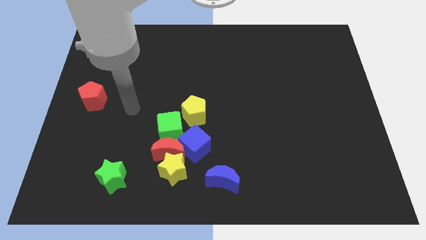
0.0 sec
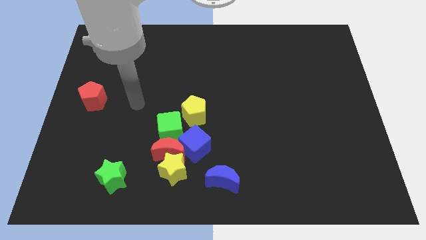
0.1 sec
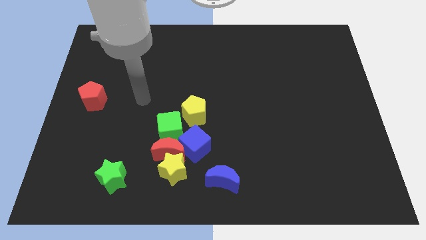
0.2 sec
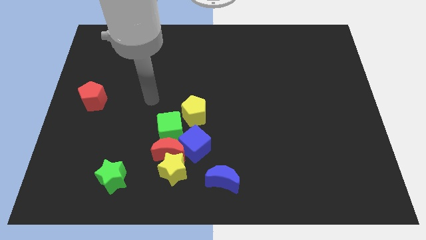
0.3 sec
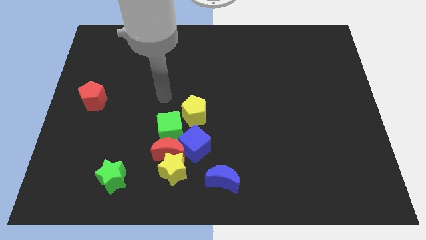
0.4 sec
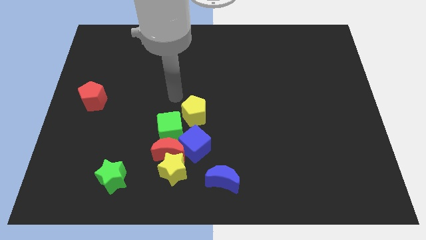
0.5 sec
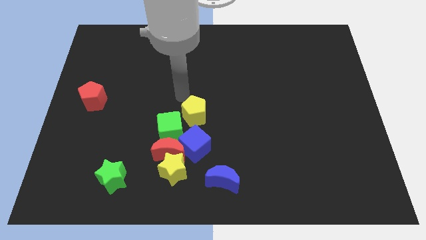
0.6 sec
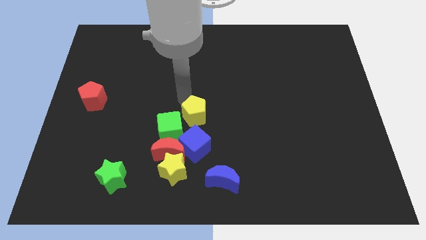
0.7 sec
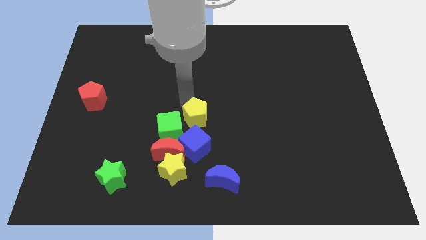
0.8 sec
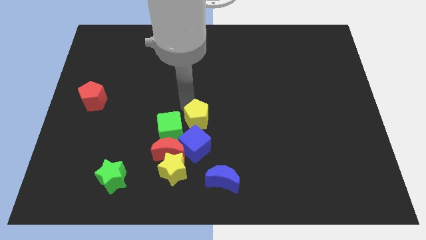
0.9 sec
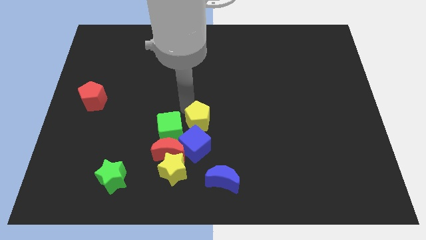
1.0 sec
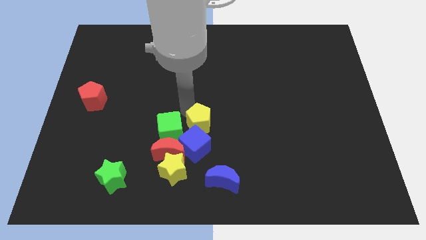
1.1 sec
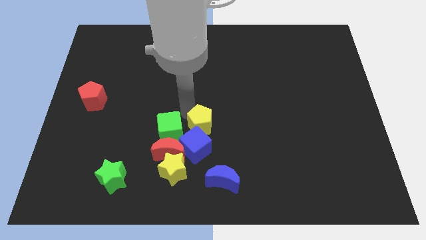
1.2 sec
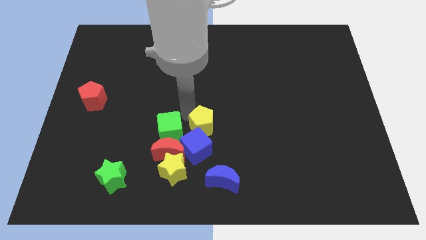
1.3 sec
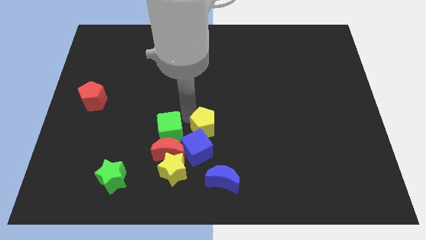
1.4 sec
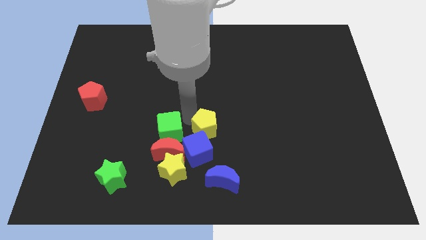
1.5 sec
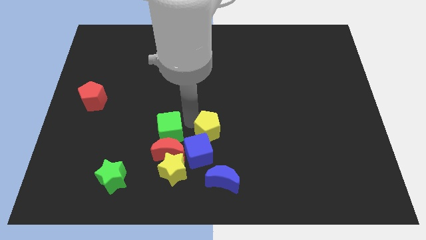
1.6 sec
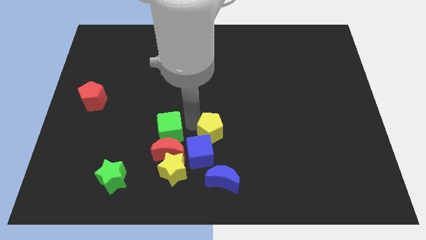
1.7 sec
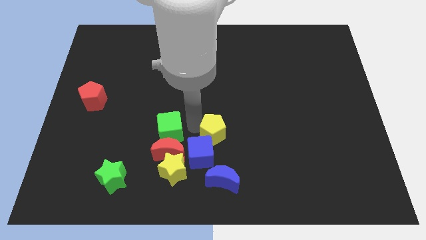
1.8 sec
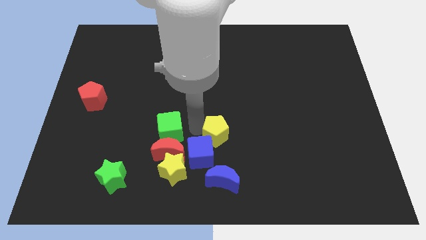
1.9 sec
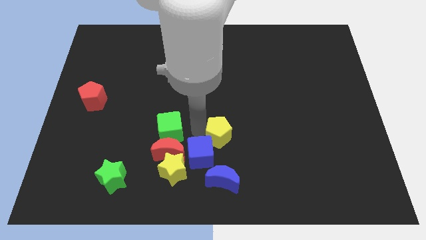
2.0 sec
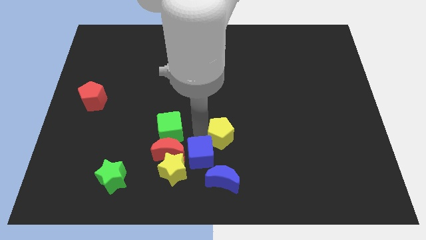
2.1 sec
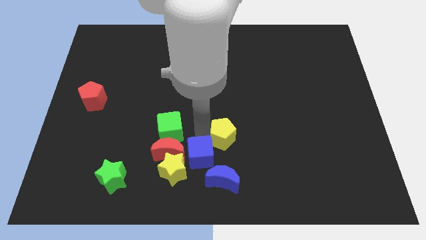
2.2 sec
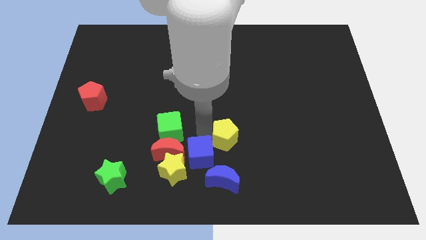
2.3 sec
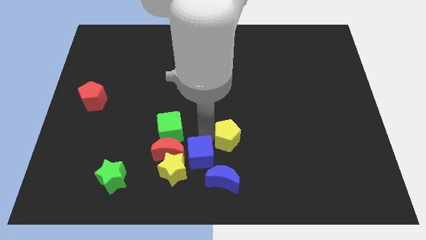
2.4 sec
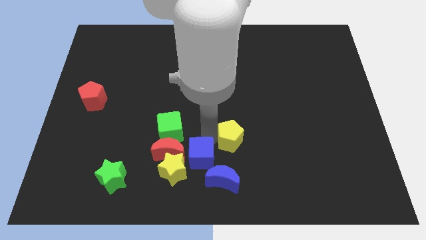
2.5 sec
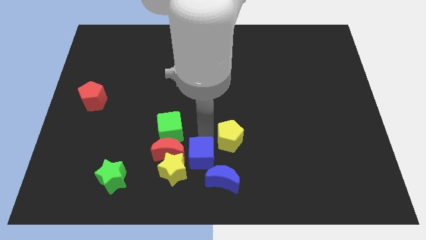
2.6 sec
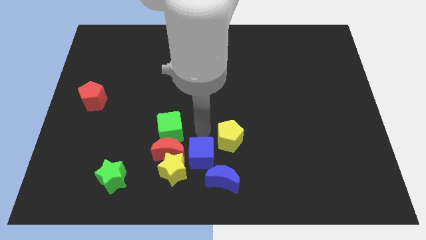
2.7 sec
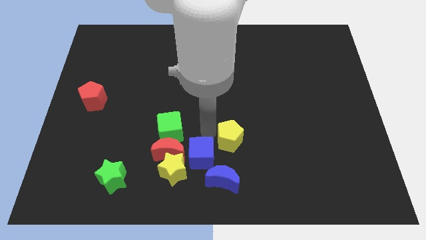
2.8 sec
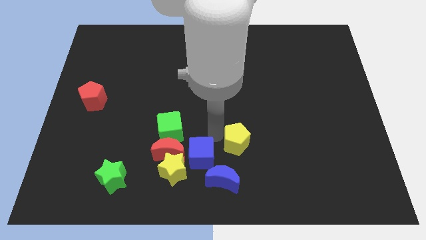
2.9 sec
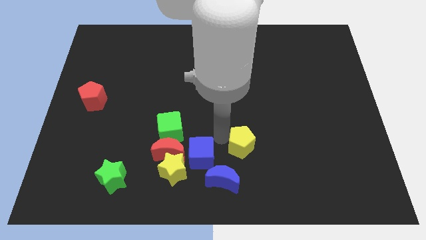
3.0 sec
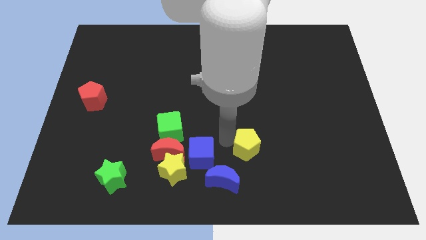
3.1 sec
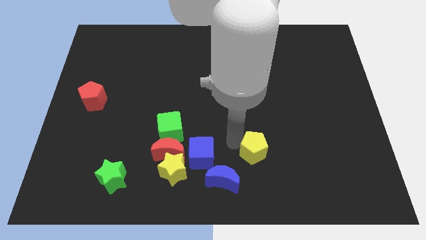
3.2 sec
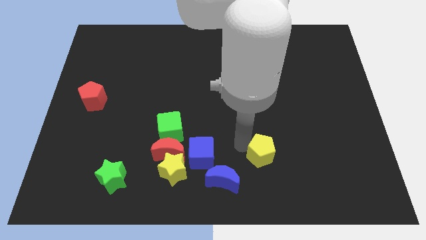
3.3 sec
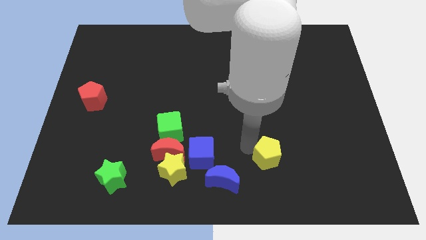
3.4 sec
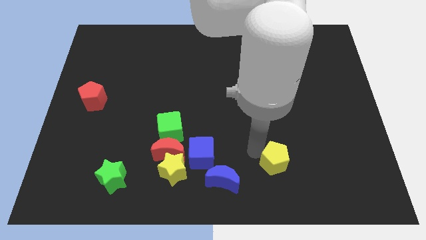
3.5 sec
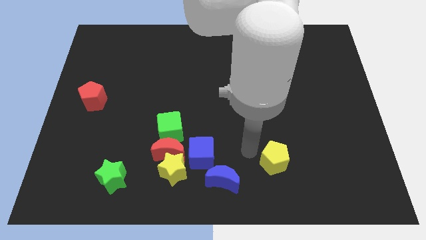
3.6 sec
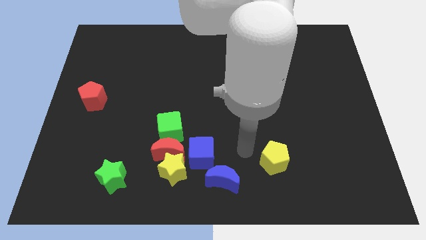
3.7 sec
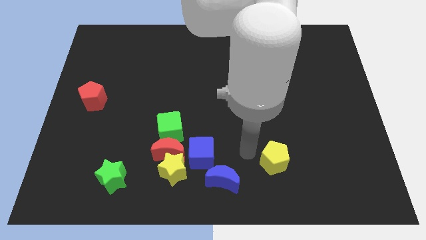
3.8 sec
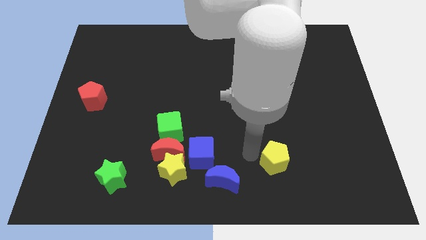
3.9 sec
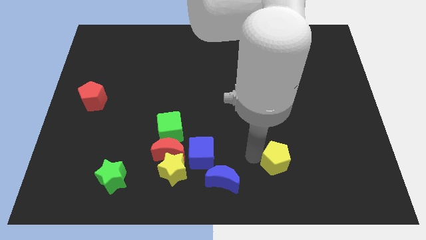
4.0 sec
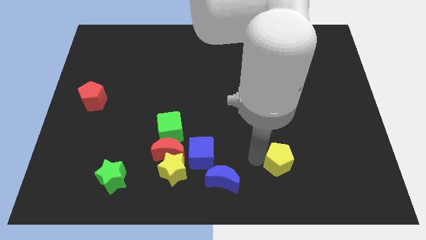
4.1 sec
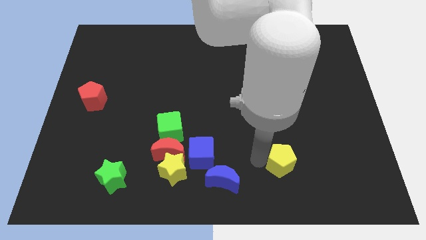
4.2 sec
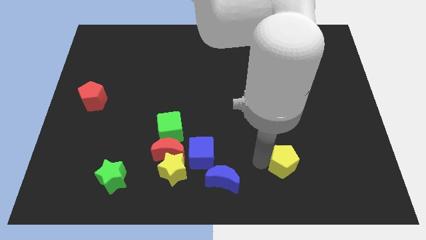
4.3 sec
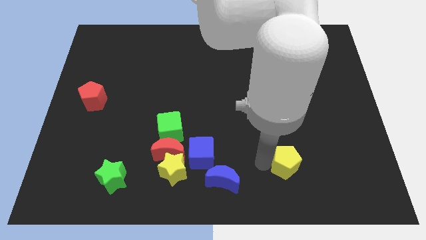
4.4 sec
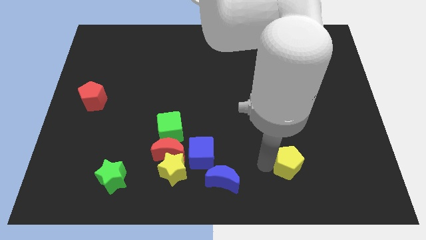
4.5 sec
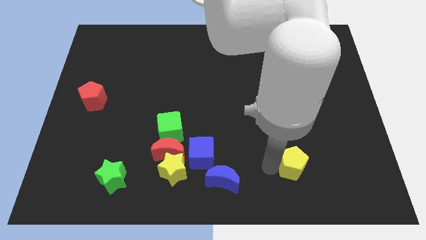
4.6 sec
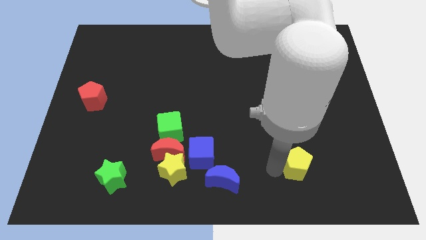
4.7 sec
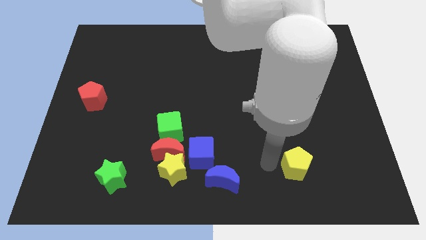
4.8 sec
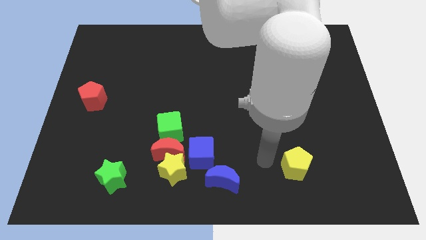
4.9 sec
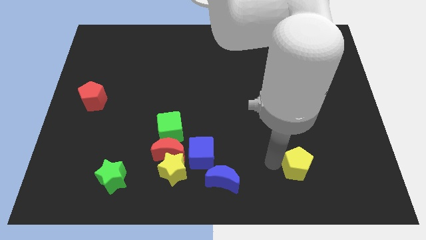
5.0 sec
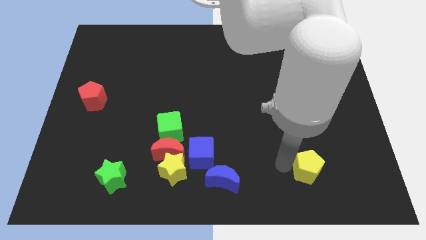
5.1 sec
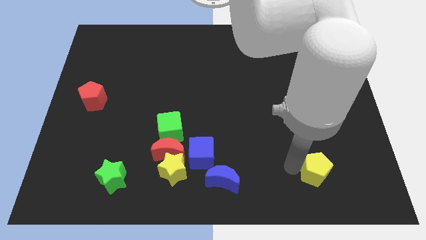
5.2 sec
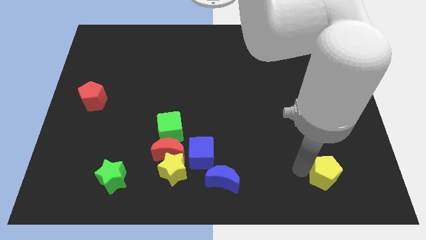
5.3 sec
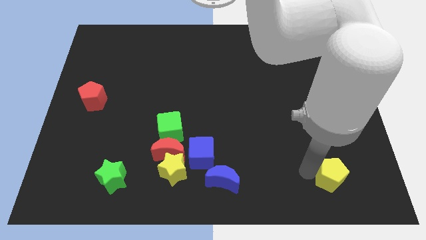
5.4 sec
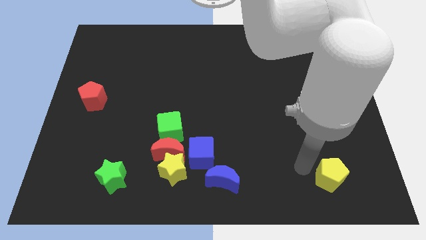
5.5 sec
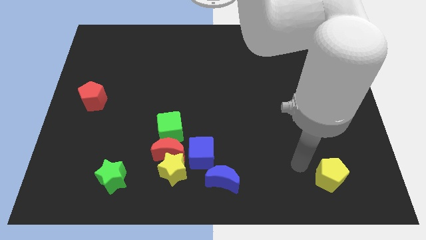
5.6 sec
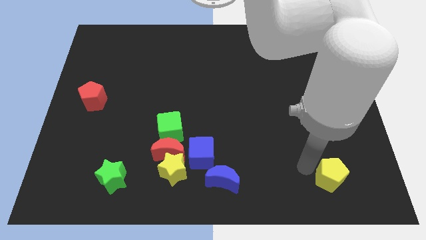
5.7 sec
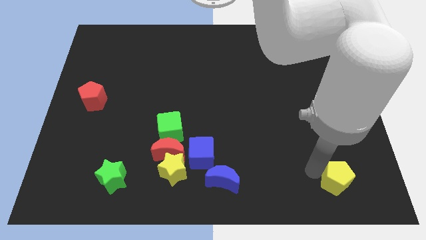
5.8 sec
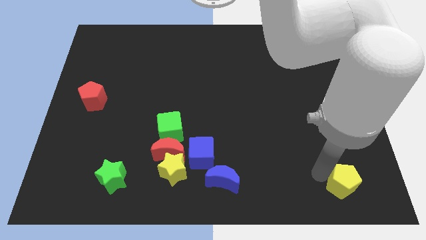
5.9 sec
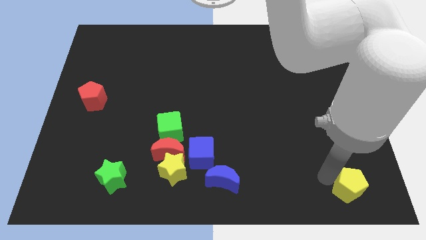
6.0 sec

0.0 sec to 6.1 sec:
move the yellow pentagon to the bottom right of the board
